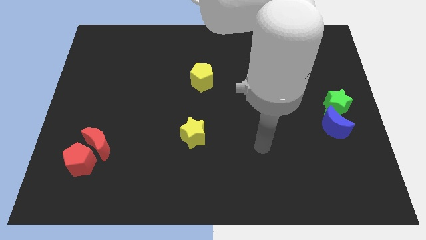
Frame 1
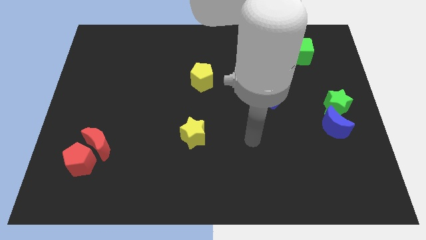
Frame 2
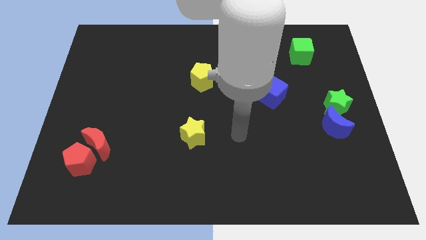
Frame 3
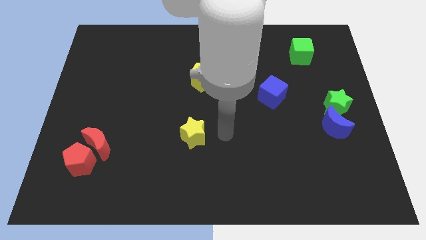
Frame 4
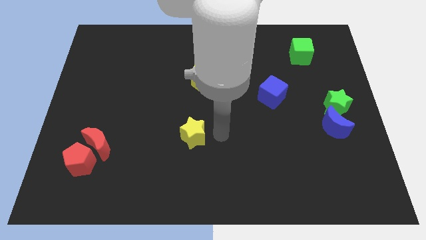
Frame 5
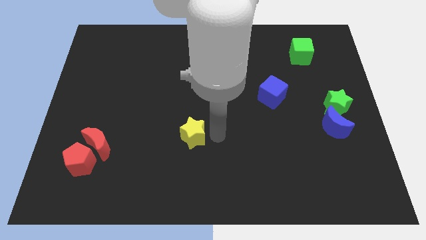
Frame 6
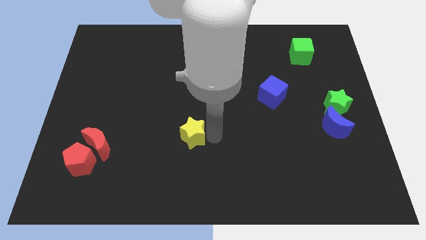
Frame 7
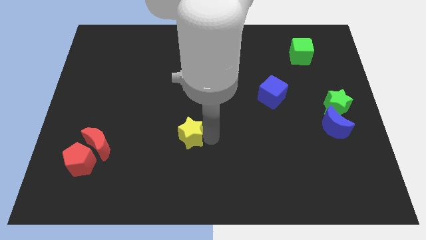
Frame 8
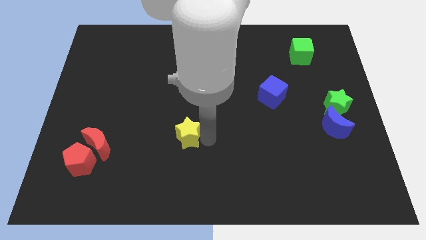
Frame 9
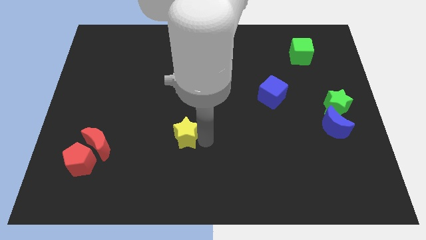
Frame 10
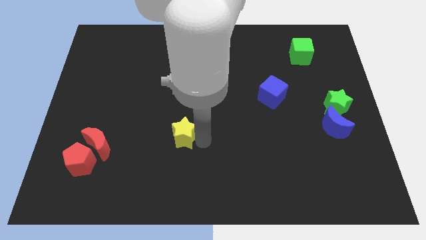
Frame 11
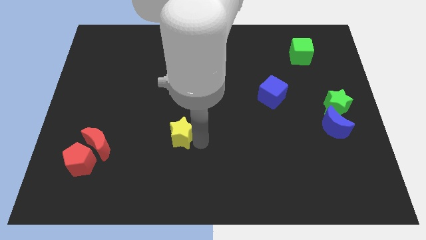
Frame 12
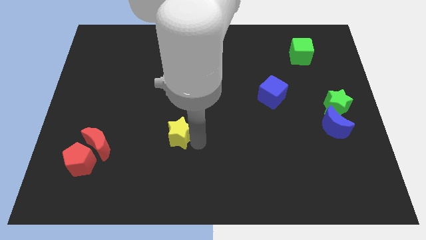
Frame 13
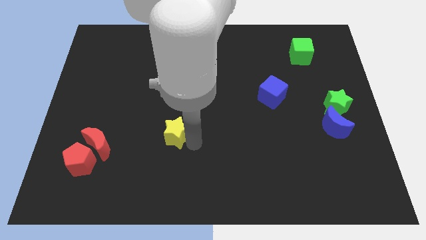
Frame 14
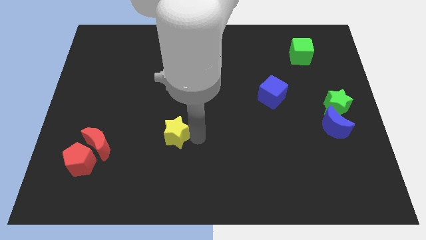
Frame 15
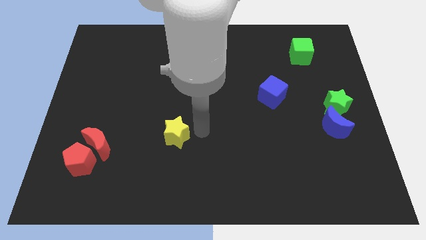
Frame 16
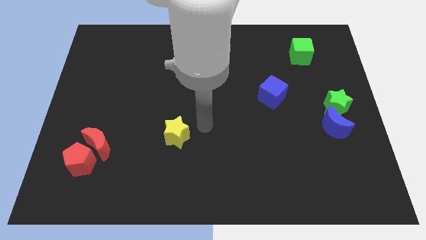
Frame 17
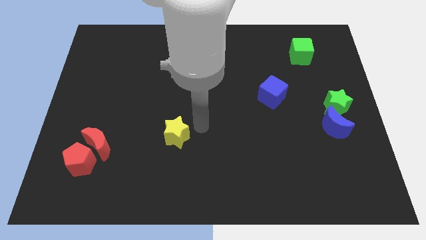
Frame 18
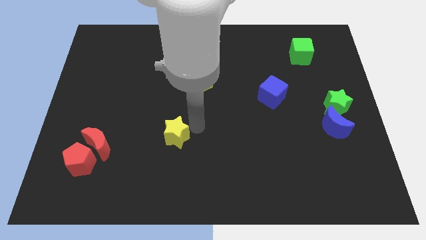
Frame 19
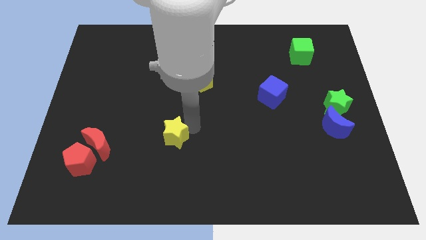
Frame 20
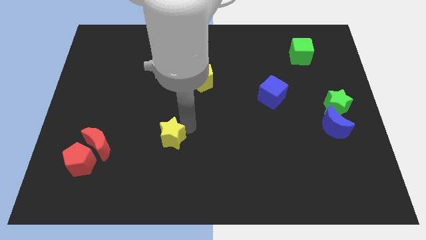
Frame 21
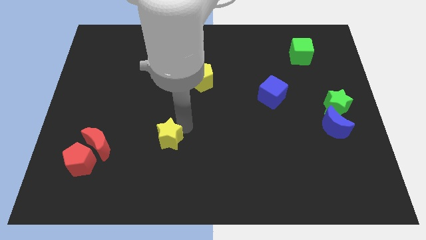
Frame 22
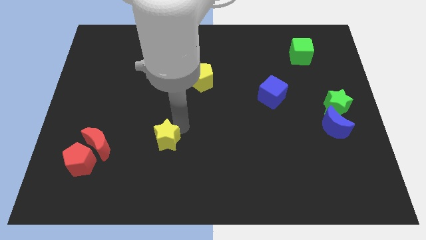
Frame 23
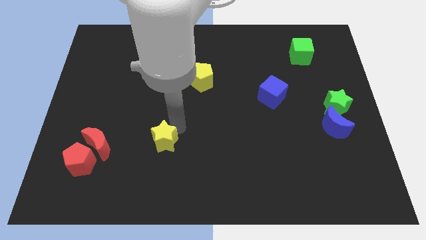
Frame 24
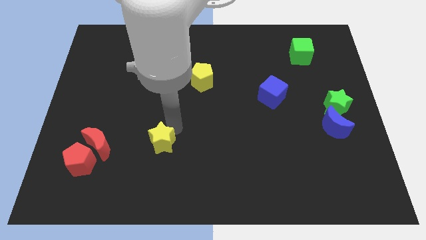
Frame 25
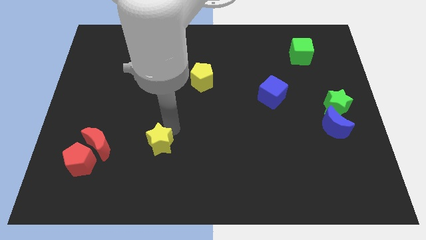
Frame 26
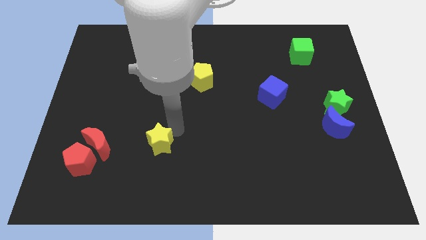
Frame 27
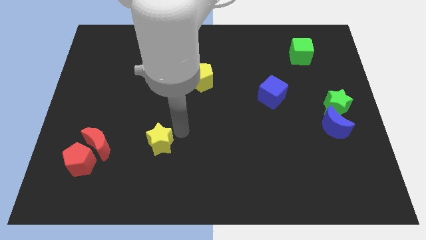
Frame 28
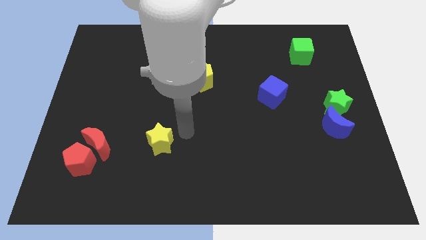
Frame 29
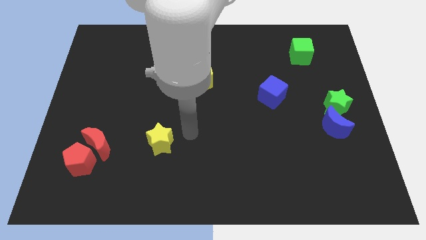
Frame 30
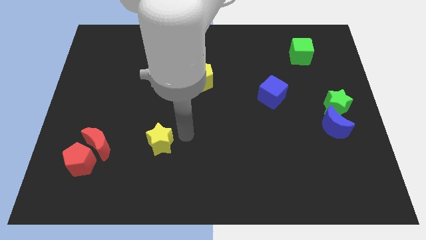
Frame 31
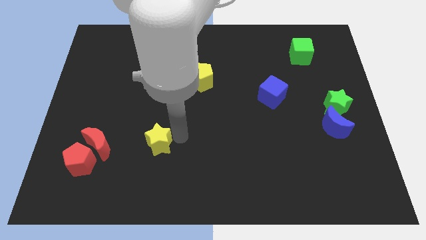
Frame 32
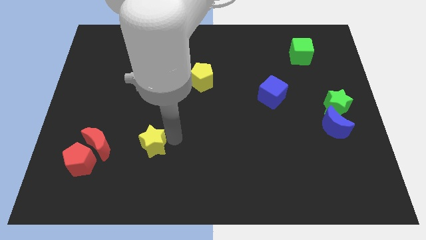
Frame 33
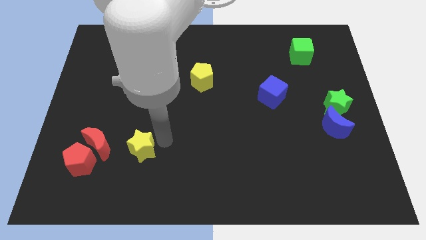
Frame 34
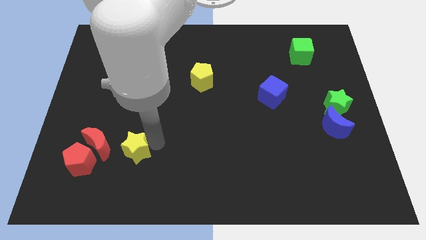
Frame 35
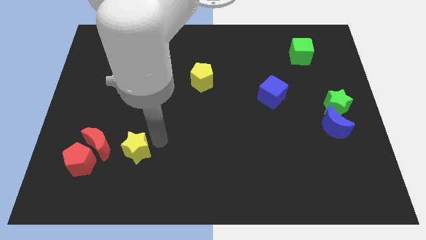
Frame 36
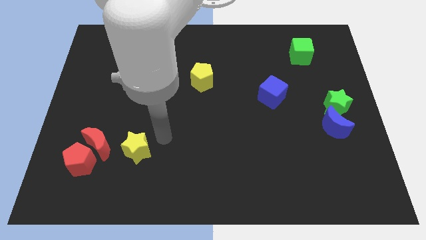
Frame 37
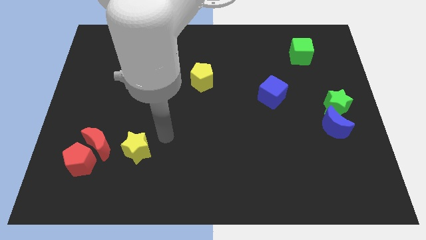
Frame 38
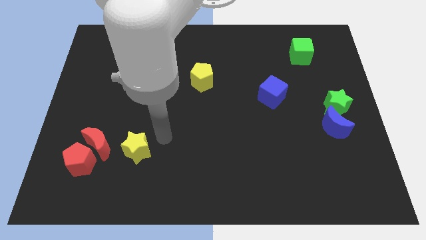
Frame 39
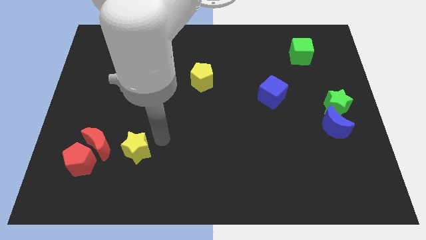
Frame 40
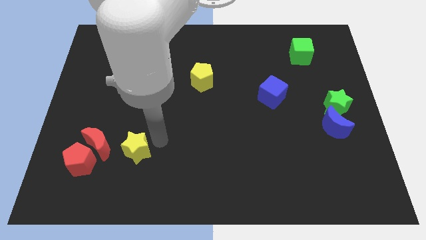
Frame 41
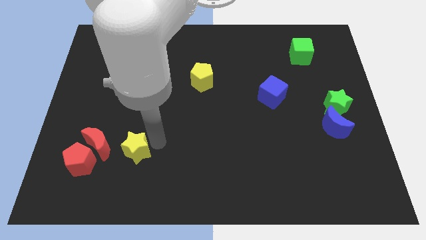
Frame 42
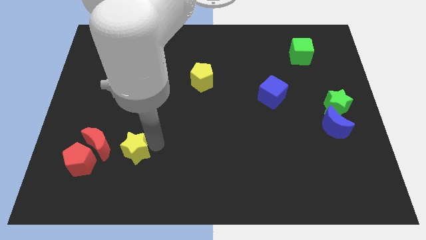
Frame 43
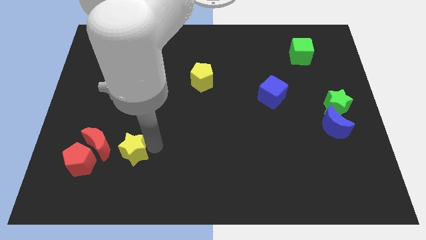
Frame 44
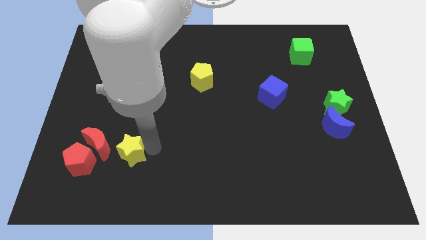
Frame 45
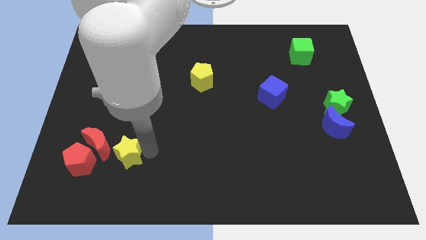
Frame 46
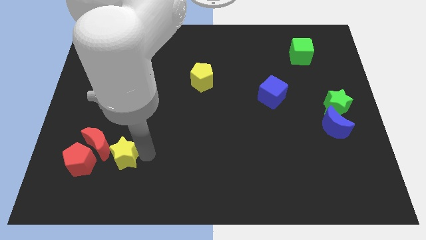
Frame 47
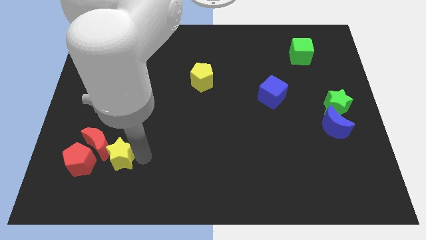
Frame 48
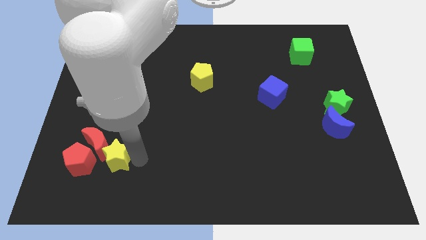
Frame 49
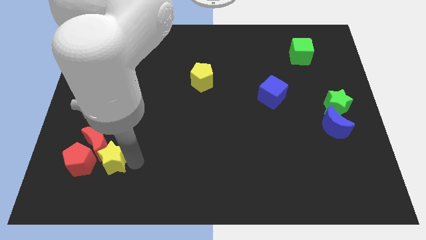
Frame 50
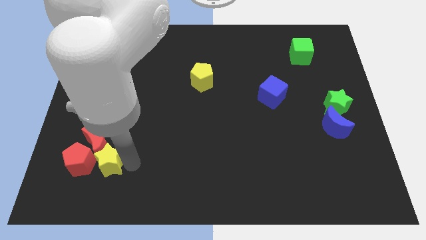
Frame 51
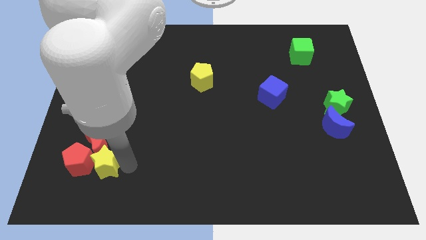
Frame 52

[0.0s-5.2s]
put the yellow star next to the red pentagon

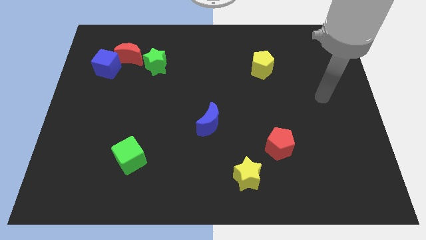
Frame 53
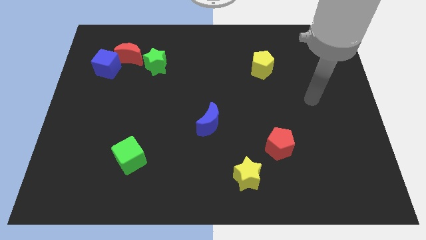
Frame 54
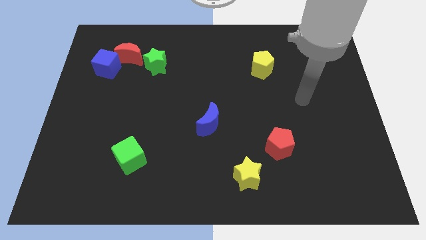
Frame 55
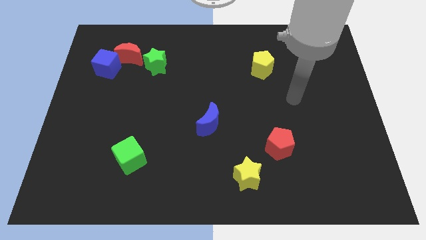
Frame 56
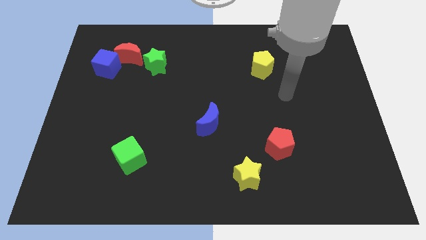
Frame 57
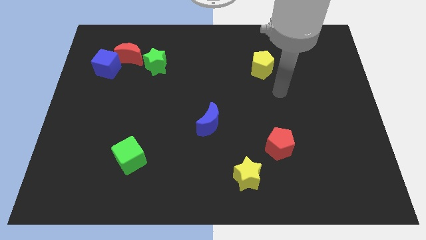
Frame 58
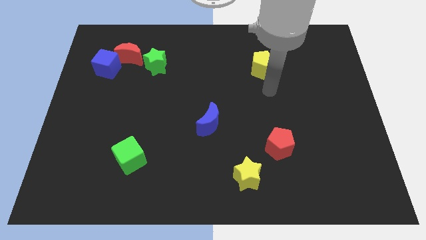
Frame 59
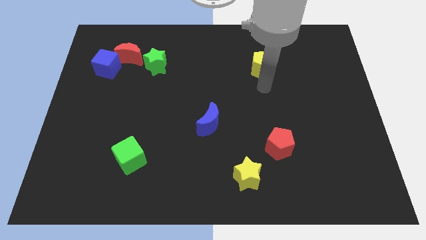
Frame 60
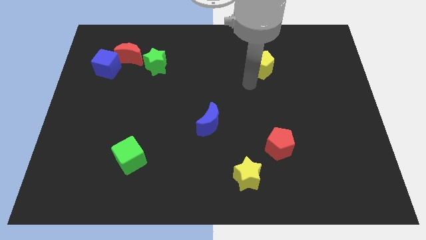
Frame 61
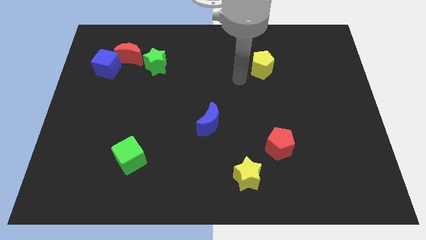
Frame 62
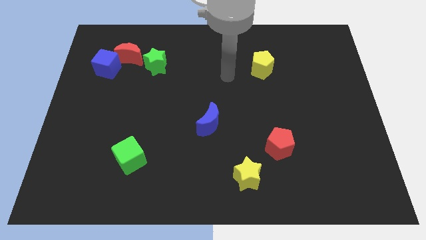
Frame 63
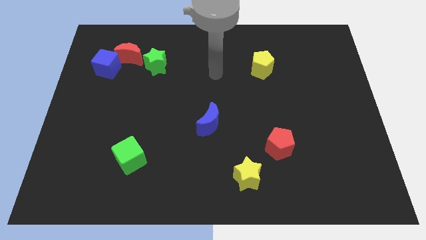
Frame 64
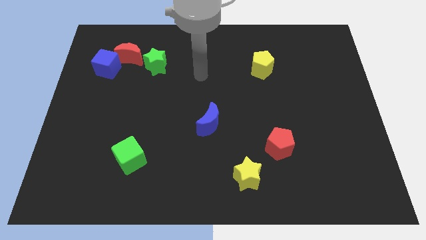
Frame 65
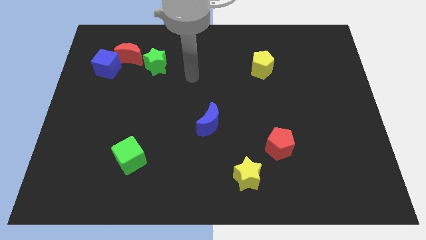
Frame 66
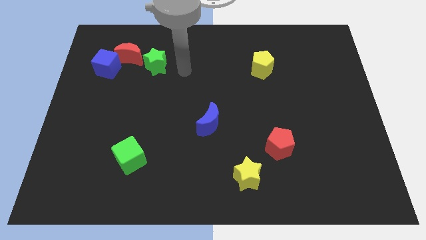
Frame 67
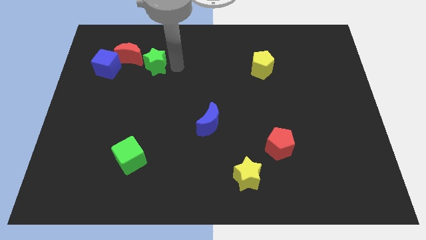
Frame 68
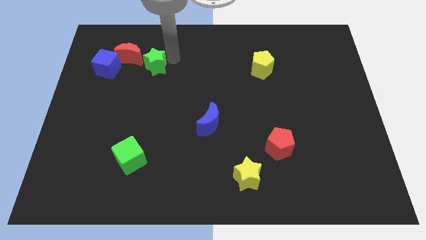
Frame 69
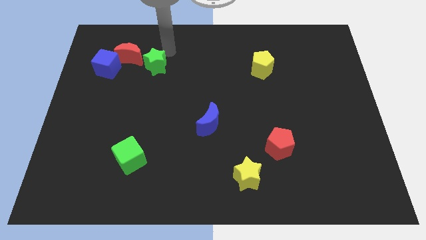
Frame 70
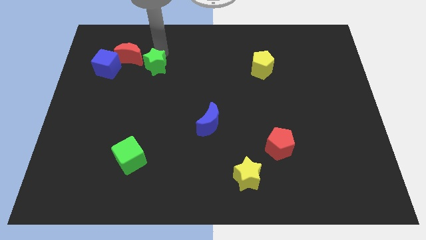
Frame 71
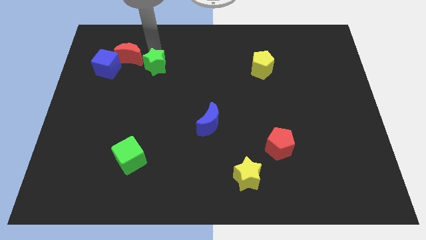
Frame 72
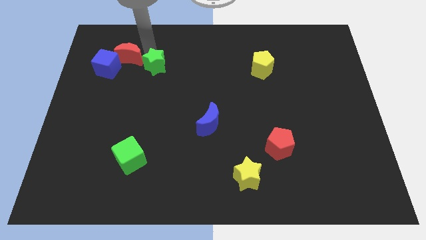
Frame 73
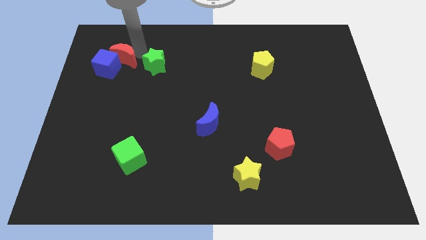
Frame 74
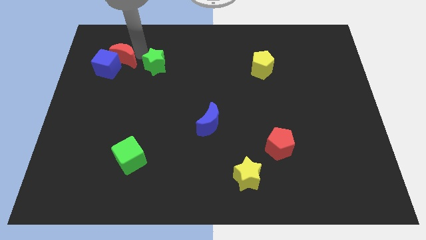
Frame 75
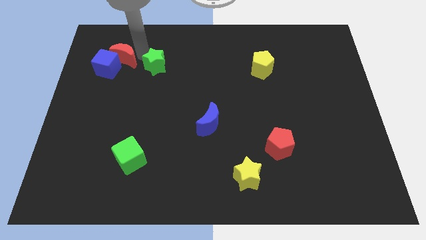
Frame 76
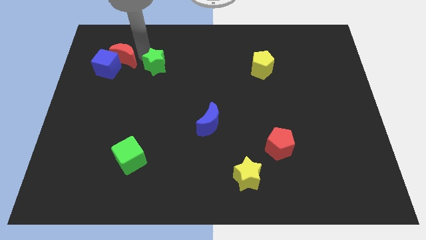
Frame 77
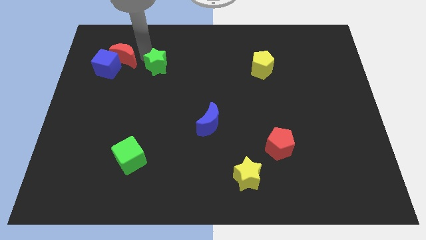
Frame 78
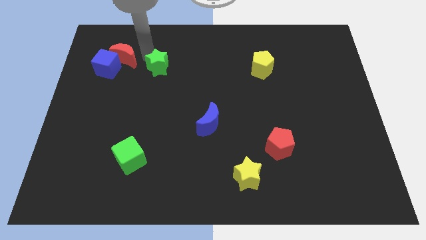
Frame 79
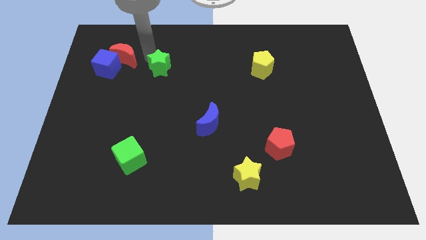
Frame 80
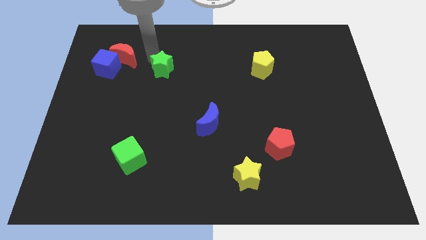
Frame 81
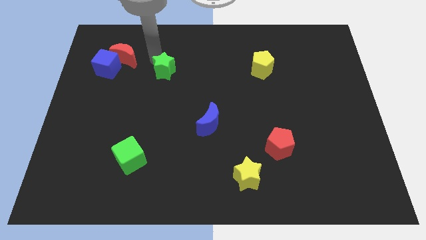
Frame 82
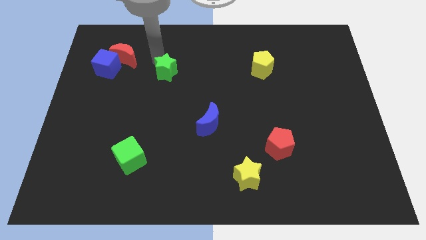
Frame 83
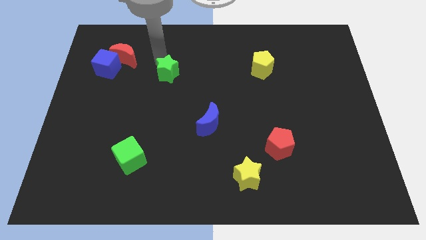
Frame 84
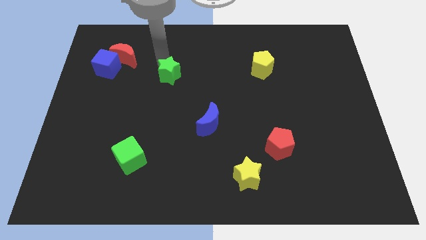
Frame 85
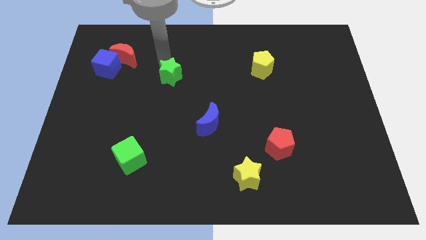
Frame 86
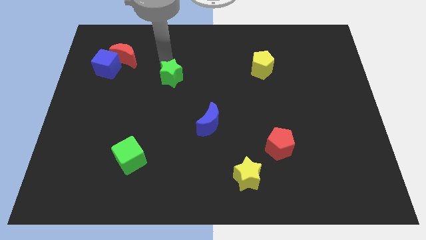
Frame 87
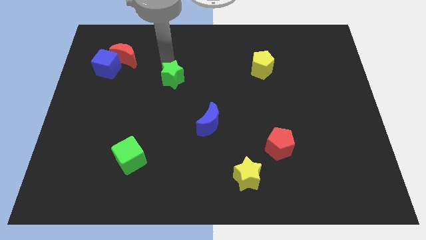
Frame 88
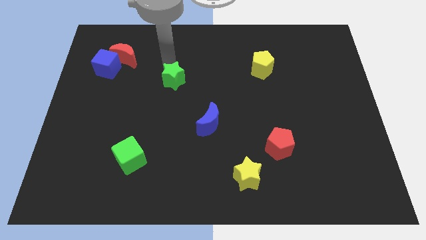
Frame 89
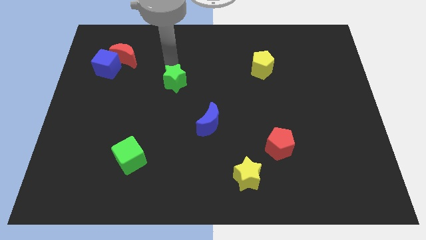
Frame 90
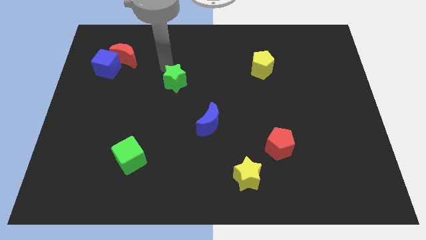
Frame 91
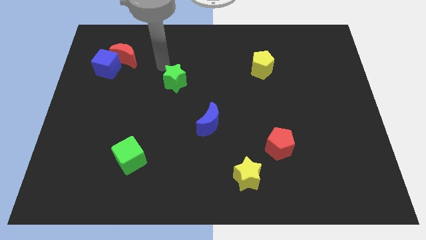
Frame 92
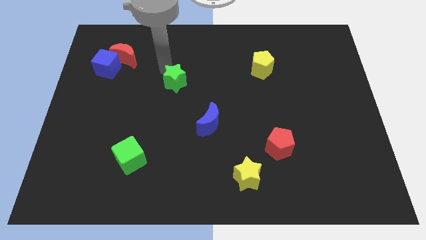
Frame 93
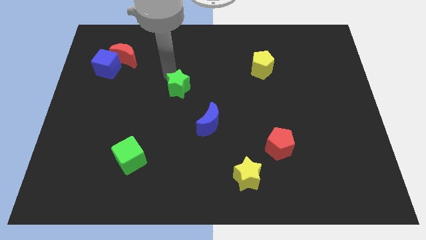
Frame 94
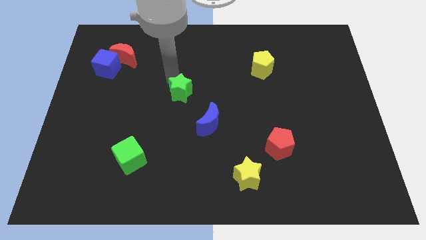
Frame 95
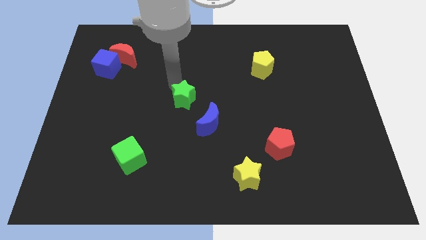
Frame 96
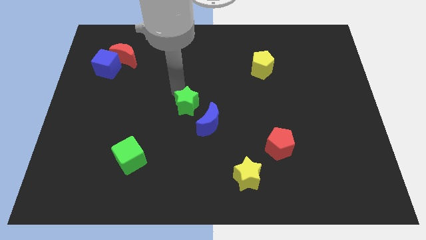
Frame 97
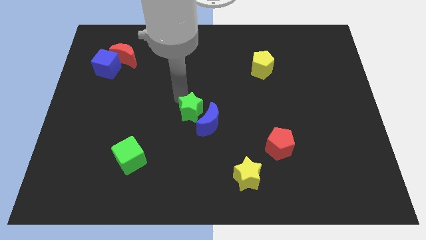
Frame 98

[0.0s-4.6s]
move the green star to the blue moon
